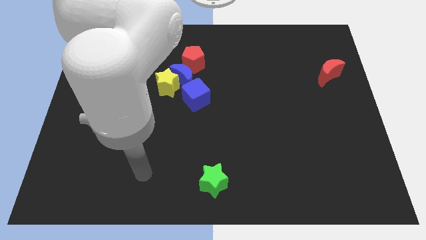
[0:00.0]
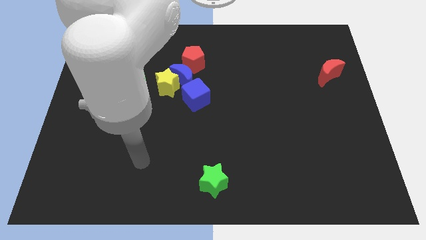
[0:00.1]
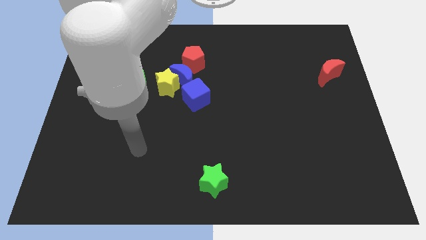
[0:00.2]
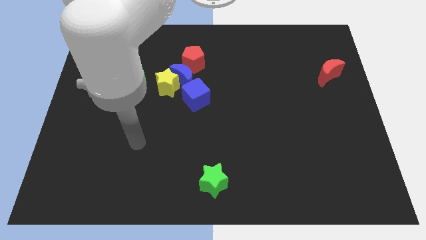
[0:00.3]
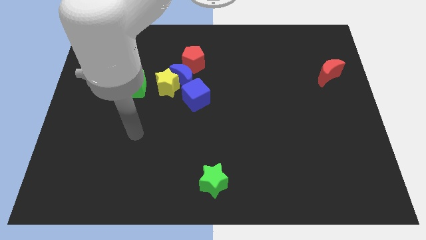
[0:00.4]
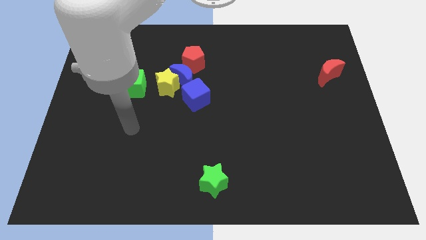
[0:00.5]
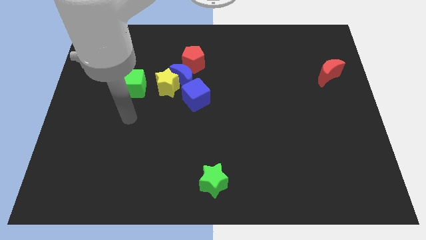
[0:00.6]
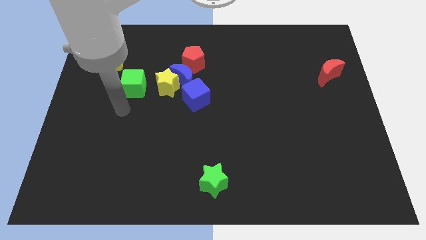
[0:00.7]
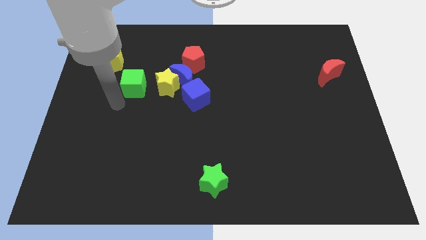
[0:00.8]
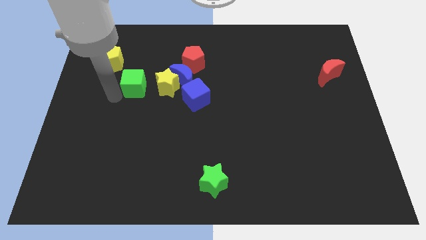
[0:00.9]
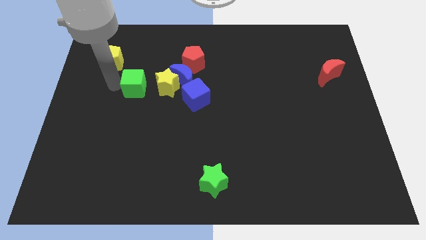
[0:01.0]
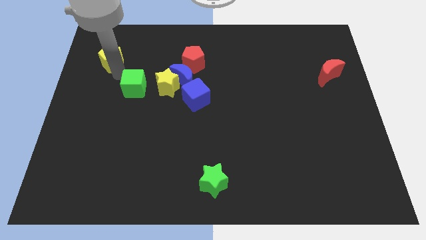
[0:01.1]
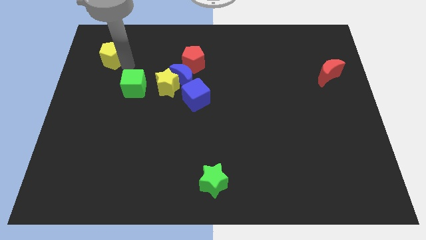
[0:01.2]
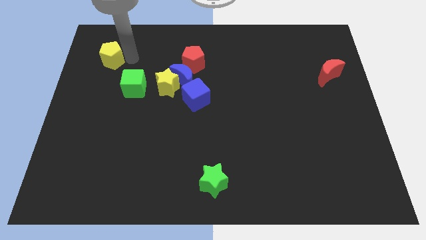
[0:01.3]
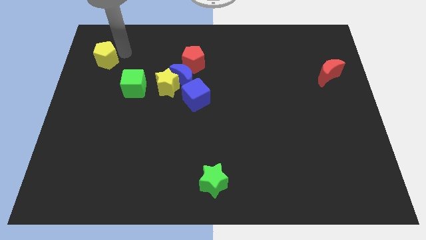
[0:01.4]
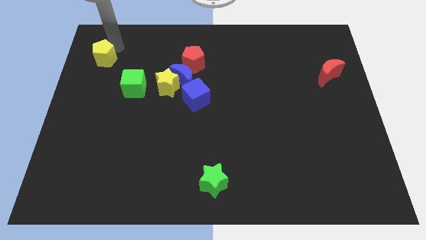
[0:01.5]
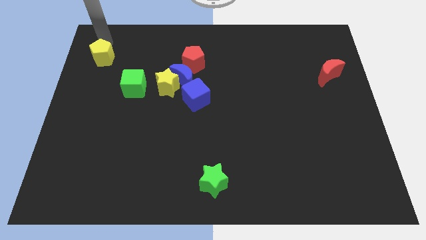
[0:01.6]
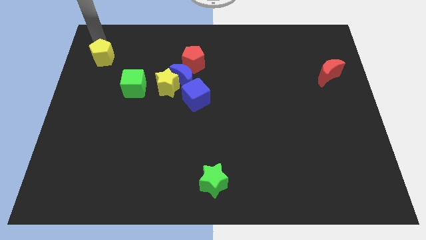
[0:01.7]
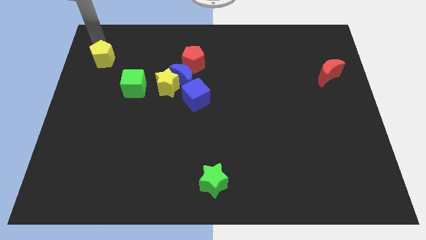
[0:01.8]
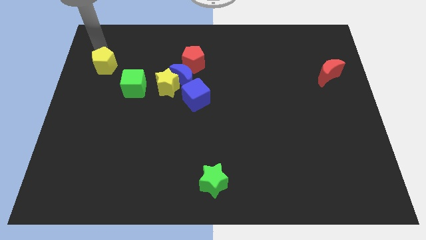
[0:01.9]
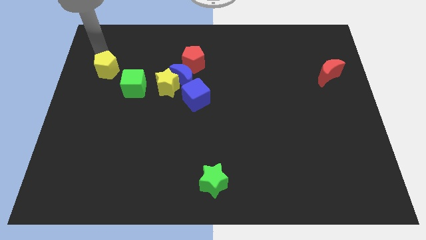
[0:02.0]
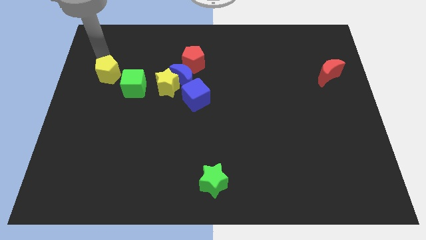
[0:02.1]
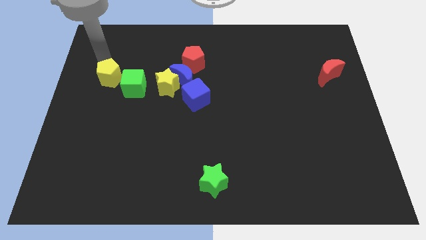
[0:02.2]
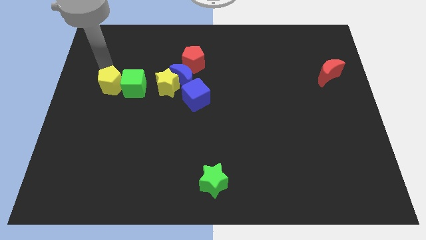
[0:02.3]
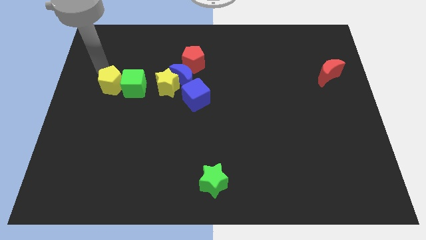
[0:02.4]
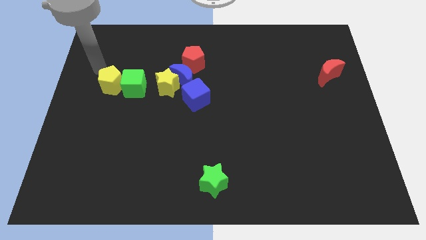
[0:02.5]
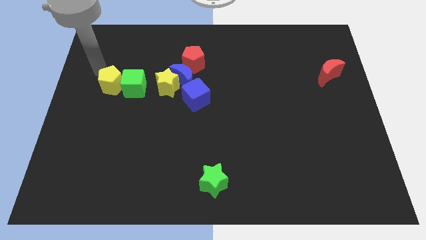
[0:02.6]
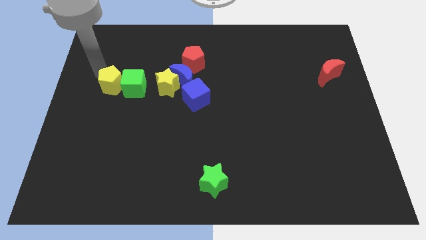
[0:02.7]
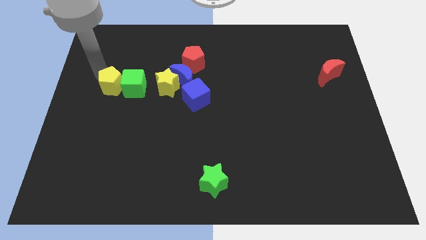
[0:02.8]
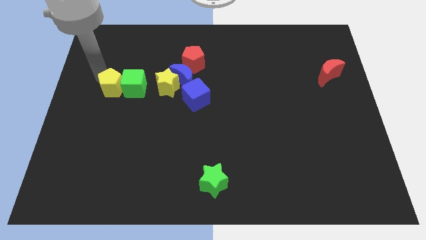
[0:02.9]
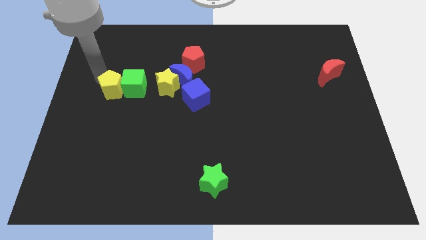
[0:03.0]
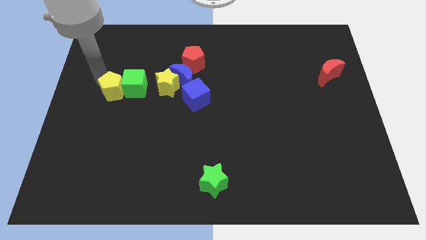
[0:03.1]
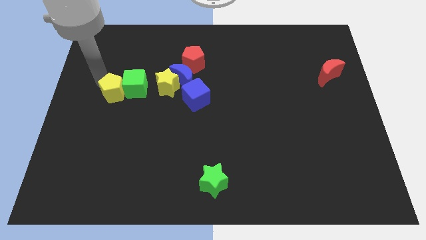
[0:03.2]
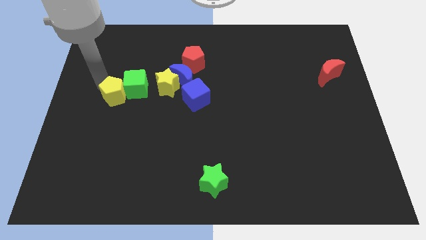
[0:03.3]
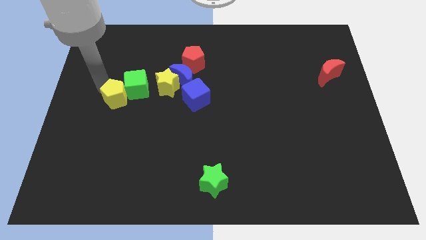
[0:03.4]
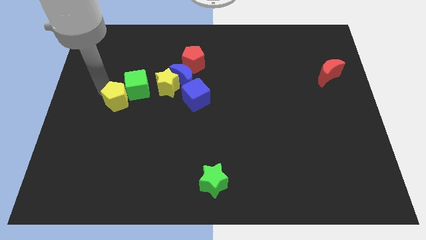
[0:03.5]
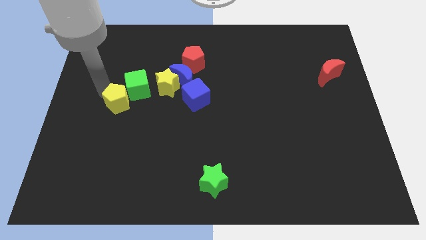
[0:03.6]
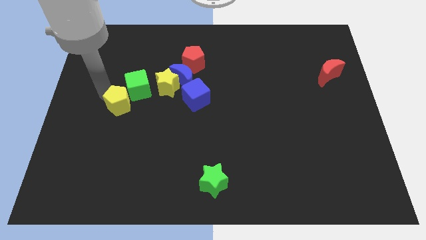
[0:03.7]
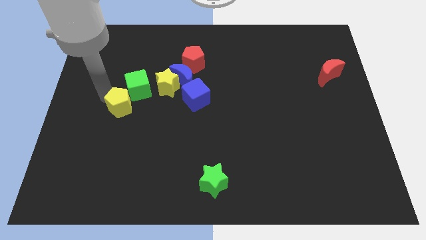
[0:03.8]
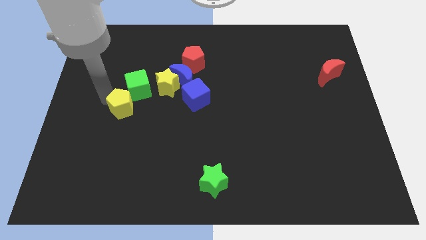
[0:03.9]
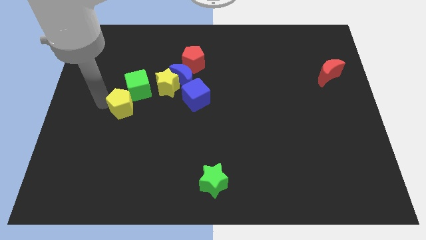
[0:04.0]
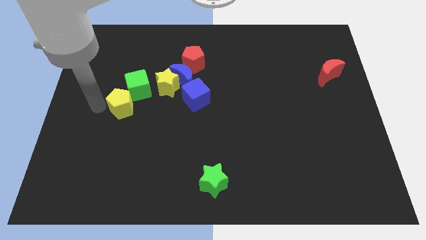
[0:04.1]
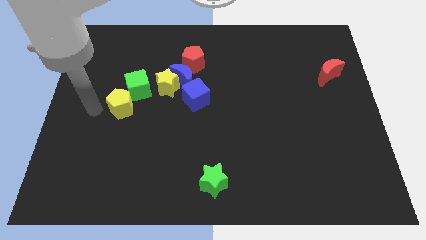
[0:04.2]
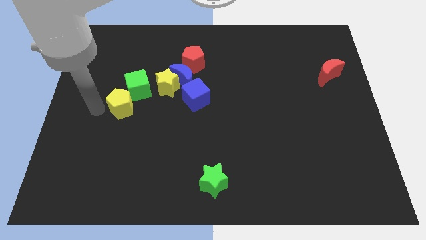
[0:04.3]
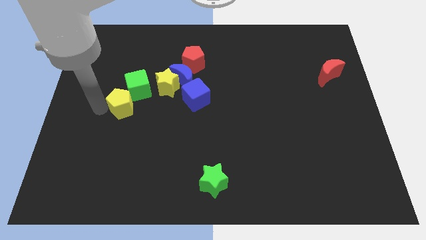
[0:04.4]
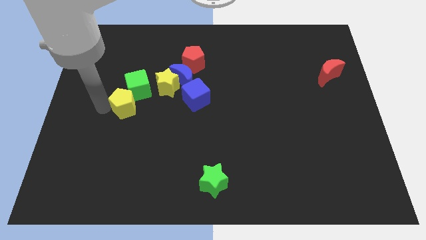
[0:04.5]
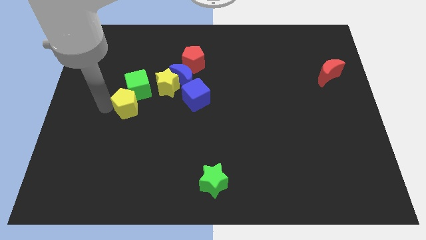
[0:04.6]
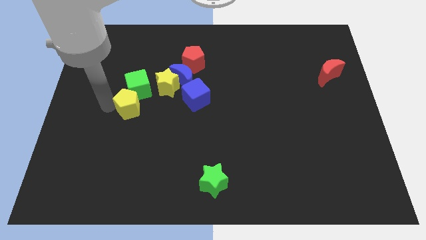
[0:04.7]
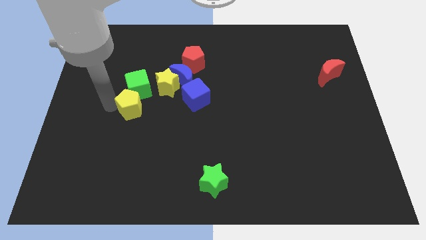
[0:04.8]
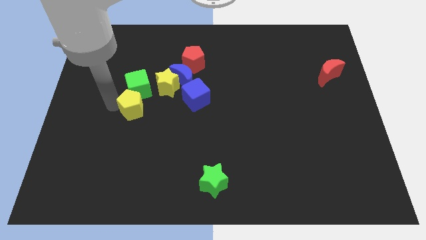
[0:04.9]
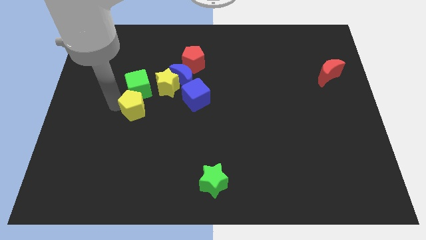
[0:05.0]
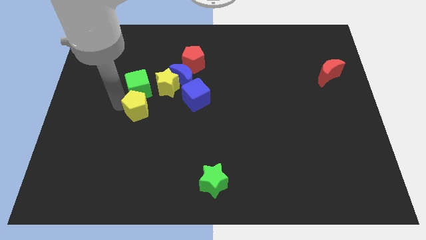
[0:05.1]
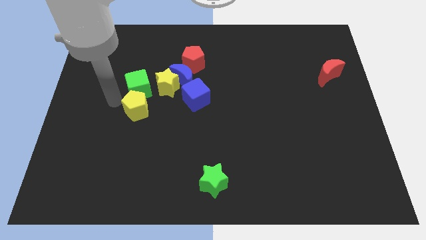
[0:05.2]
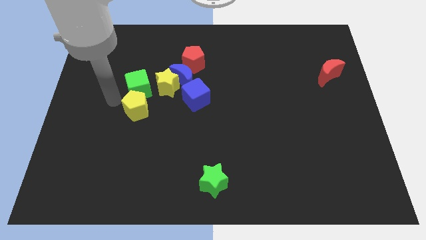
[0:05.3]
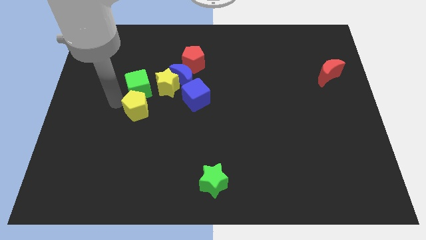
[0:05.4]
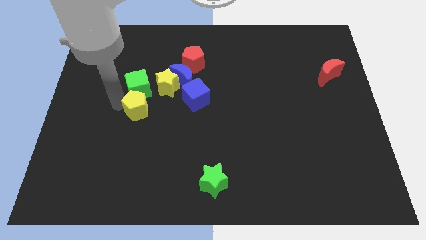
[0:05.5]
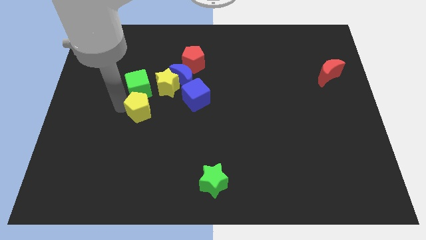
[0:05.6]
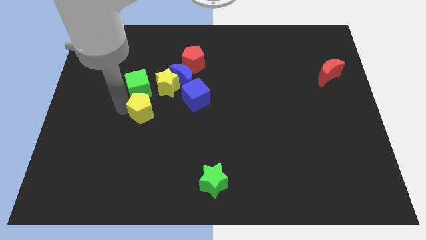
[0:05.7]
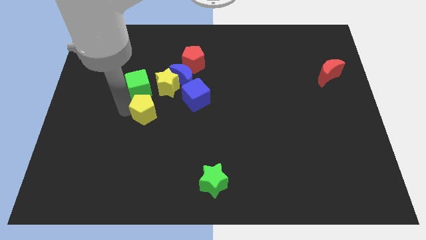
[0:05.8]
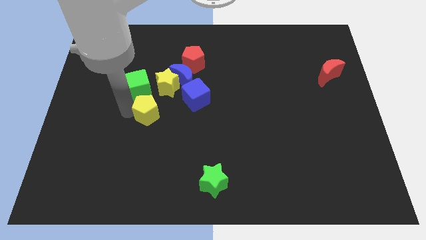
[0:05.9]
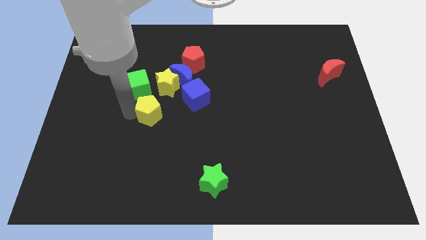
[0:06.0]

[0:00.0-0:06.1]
slide the yellow pentagon down and then to the right

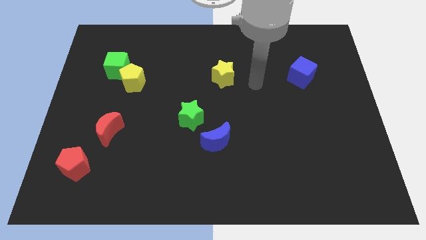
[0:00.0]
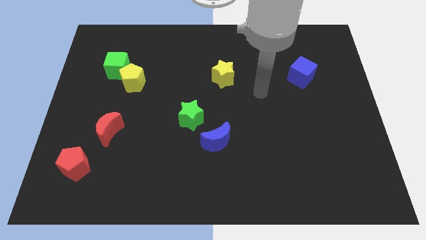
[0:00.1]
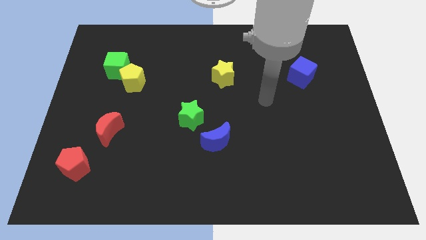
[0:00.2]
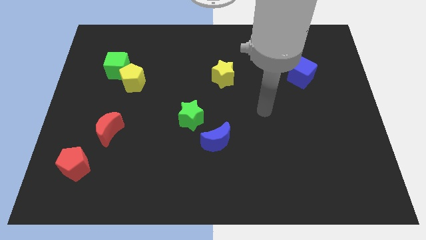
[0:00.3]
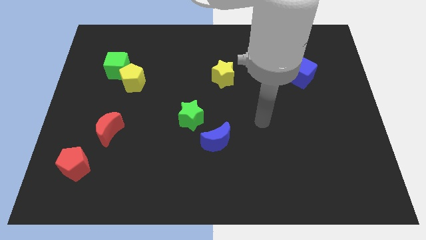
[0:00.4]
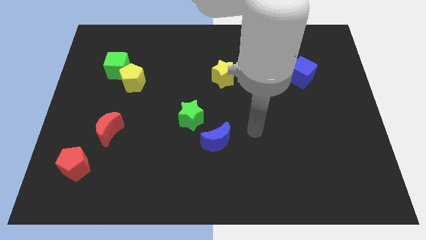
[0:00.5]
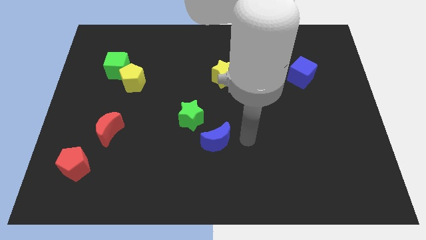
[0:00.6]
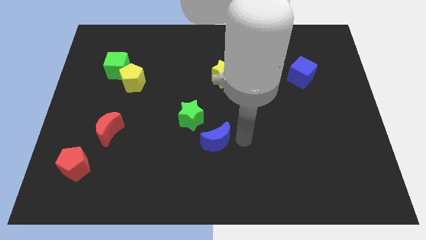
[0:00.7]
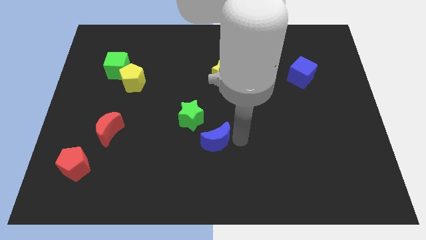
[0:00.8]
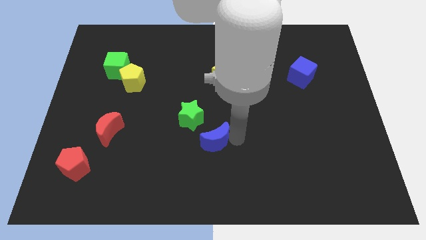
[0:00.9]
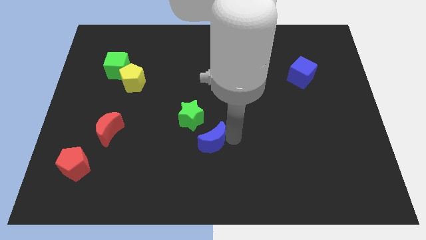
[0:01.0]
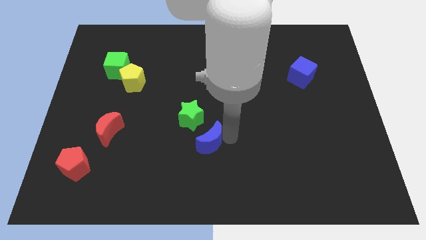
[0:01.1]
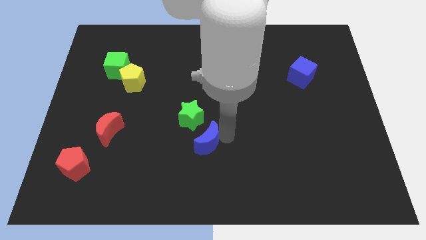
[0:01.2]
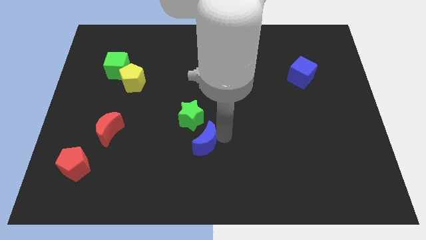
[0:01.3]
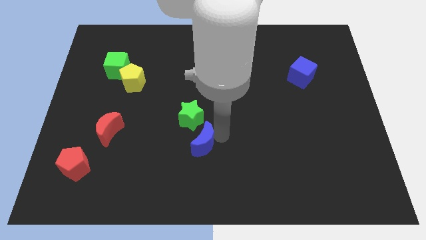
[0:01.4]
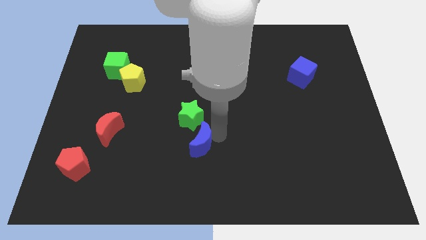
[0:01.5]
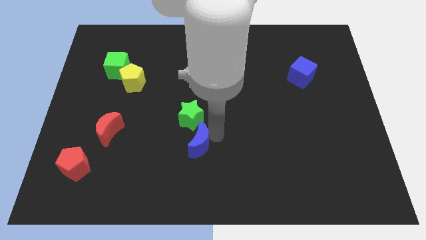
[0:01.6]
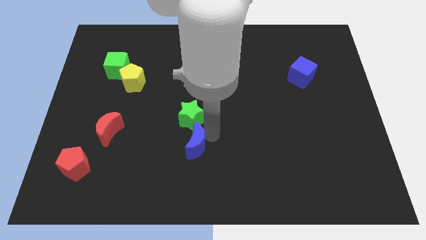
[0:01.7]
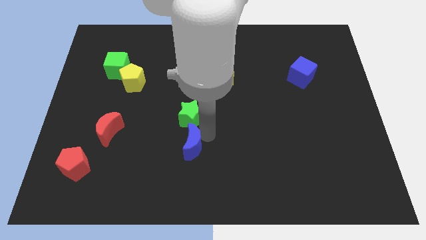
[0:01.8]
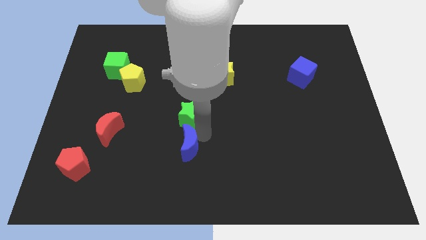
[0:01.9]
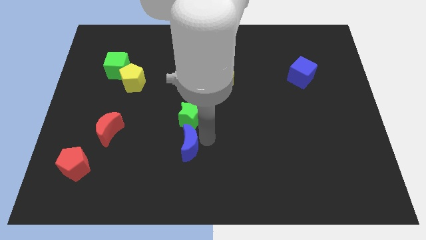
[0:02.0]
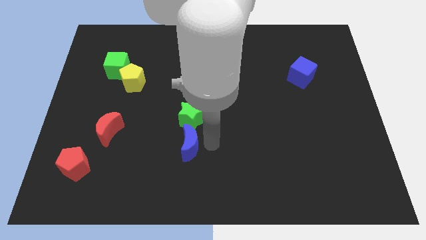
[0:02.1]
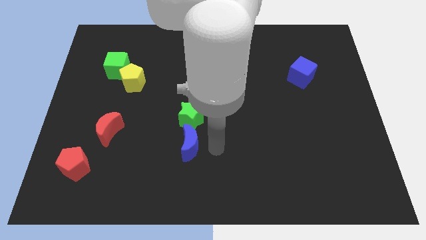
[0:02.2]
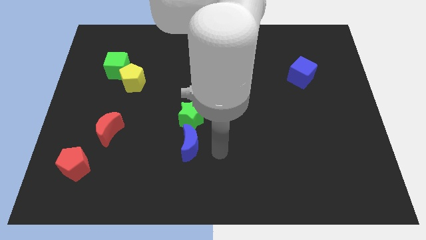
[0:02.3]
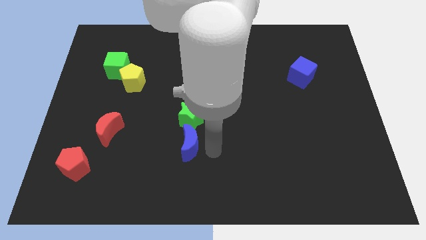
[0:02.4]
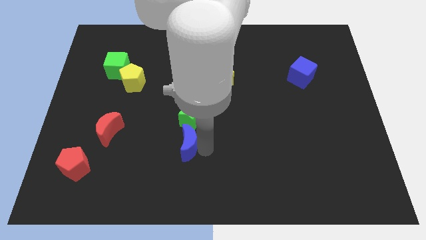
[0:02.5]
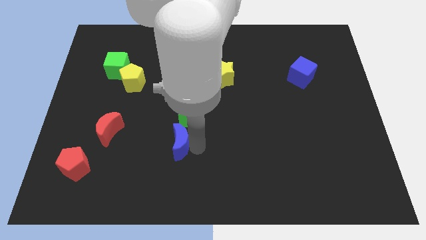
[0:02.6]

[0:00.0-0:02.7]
slightly move the blue moon to the left
